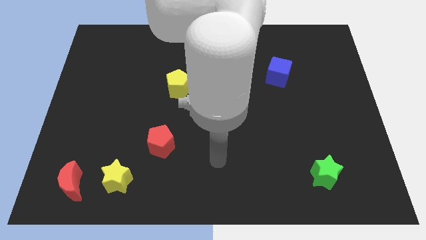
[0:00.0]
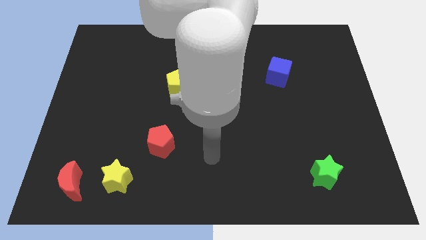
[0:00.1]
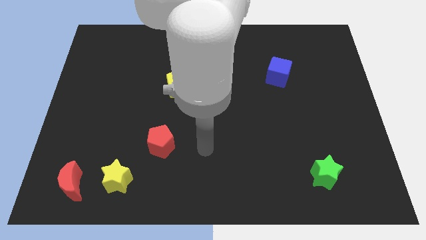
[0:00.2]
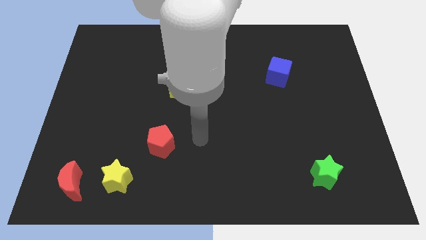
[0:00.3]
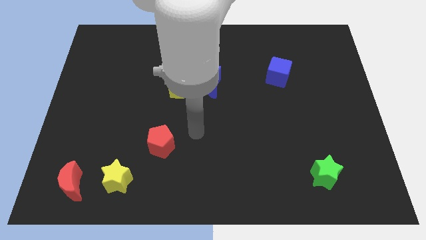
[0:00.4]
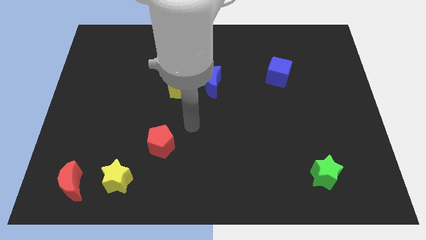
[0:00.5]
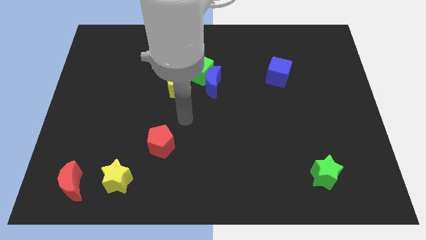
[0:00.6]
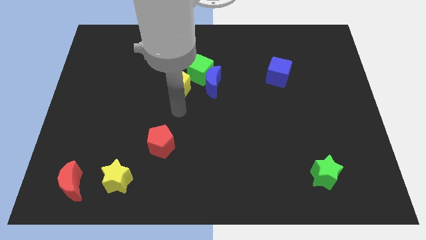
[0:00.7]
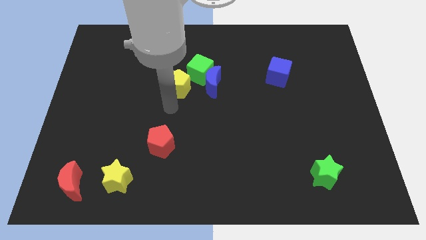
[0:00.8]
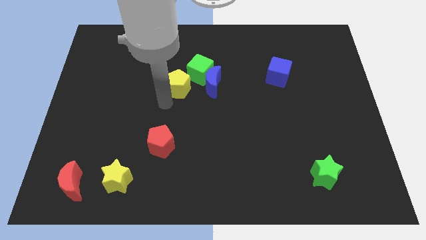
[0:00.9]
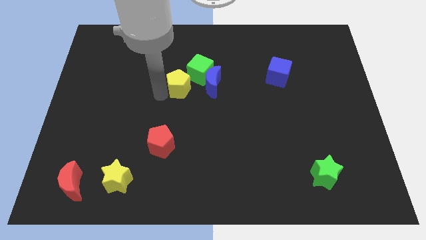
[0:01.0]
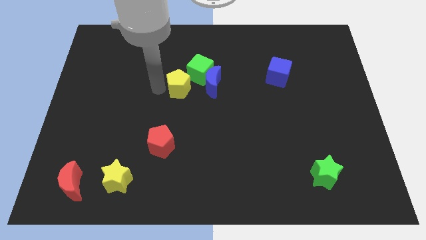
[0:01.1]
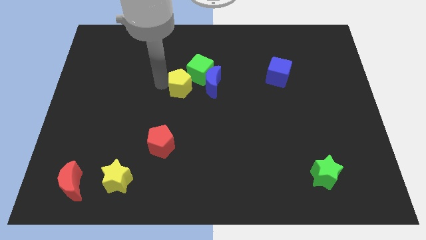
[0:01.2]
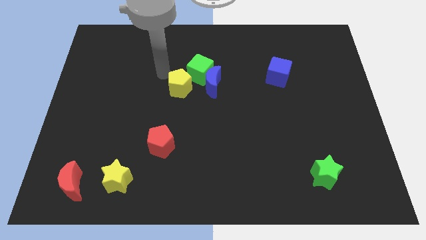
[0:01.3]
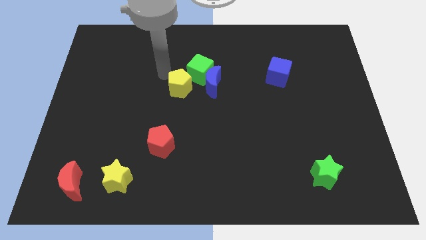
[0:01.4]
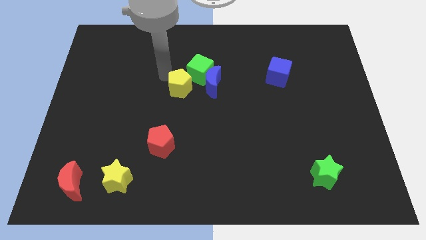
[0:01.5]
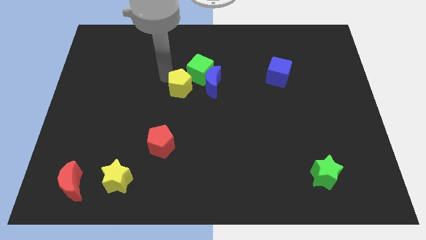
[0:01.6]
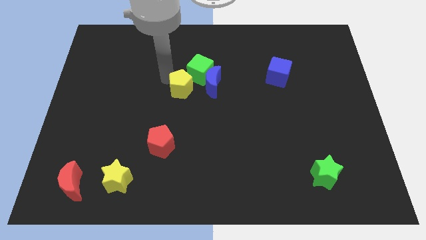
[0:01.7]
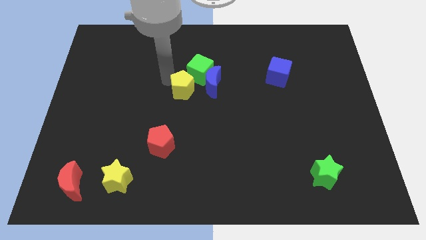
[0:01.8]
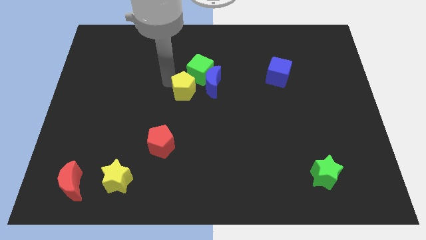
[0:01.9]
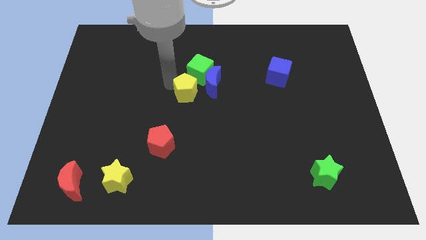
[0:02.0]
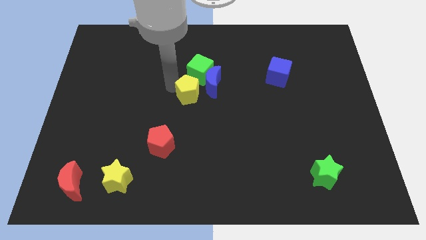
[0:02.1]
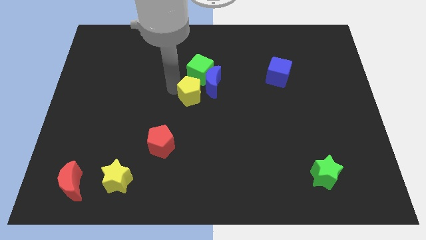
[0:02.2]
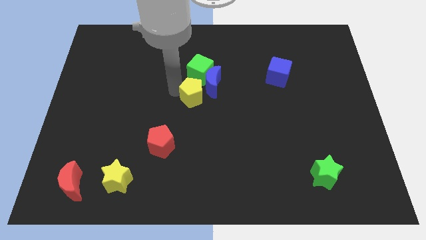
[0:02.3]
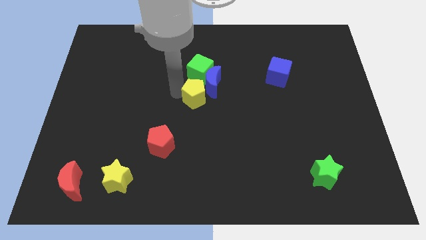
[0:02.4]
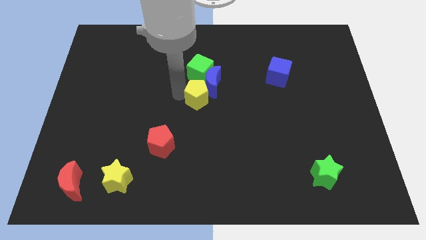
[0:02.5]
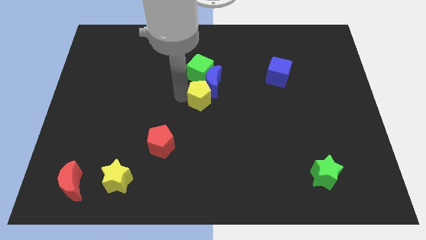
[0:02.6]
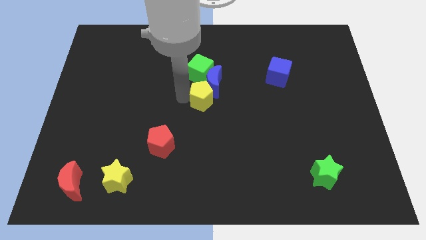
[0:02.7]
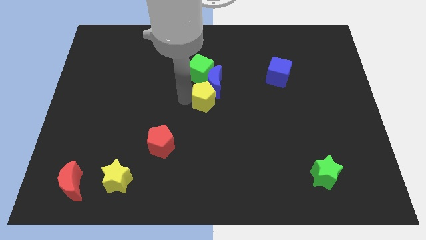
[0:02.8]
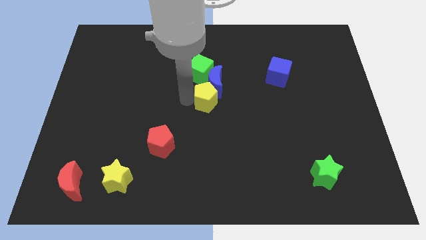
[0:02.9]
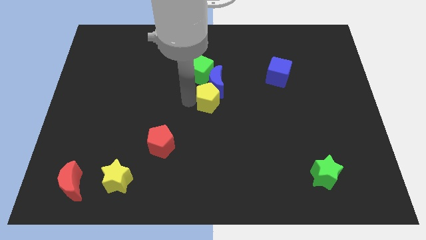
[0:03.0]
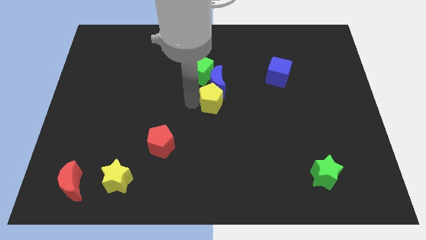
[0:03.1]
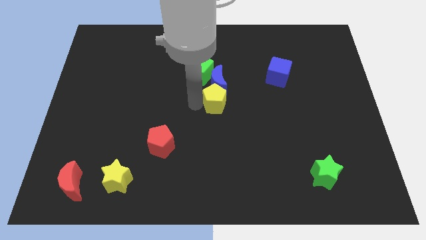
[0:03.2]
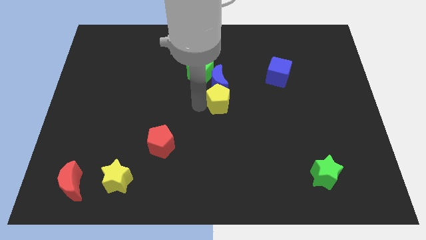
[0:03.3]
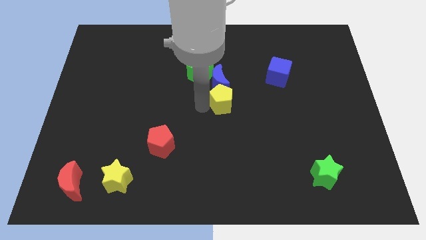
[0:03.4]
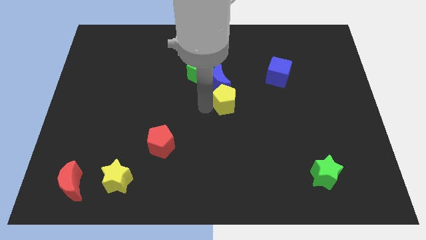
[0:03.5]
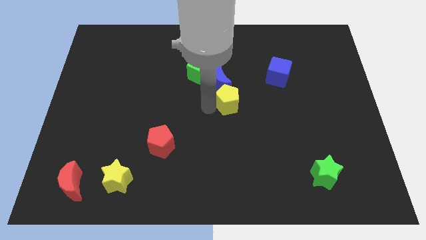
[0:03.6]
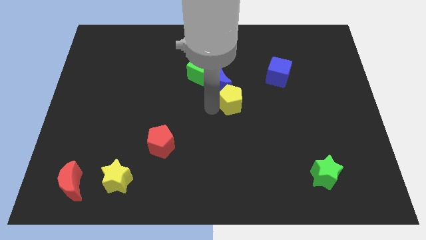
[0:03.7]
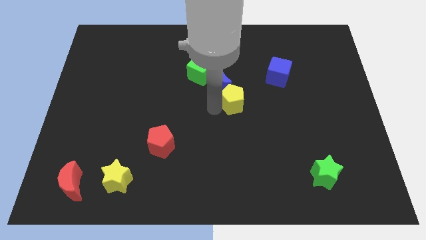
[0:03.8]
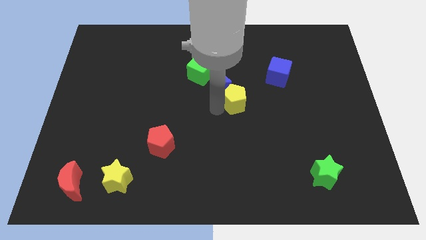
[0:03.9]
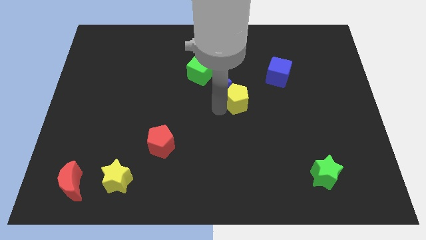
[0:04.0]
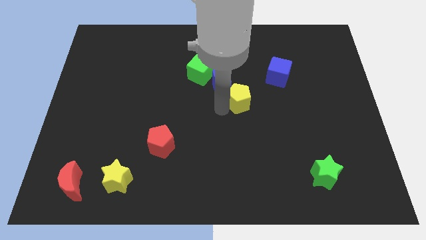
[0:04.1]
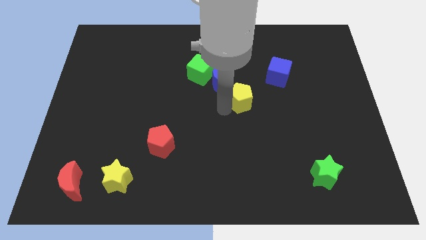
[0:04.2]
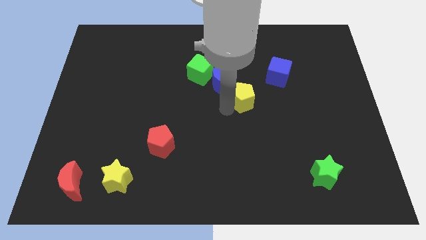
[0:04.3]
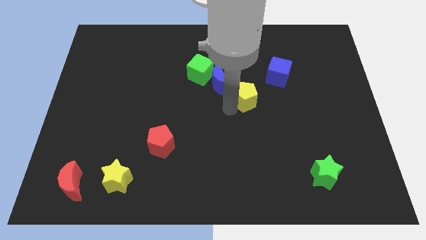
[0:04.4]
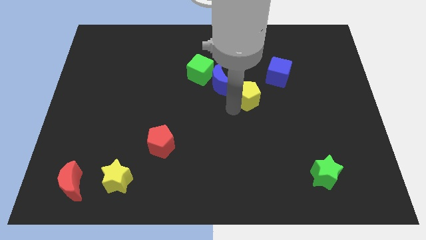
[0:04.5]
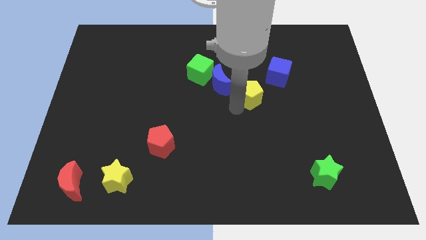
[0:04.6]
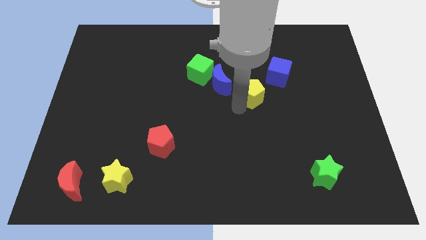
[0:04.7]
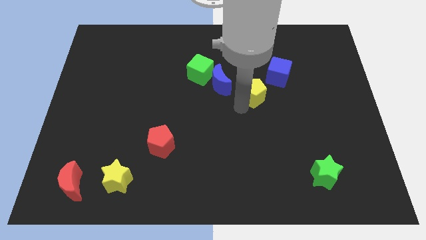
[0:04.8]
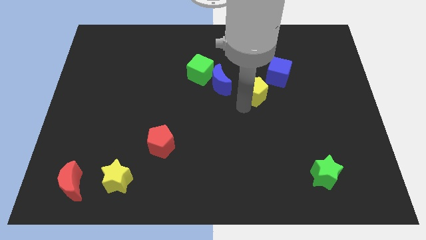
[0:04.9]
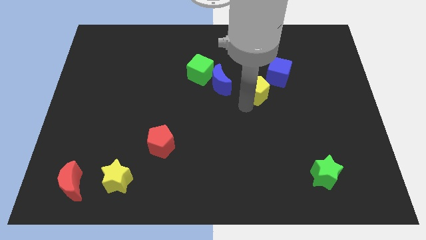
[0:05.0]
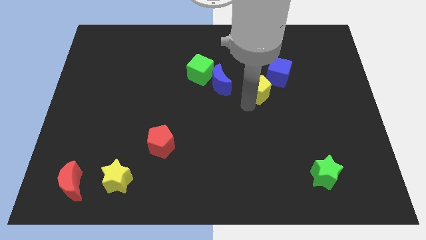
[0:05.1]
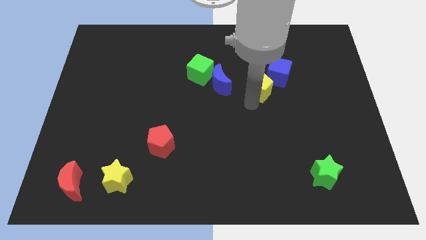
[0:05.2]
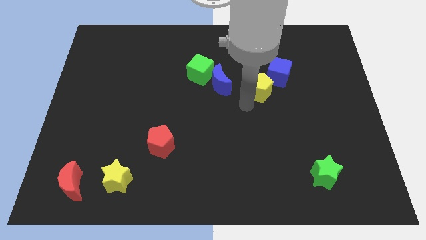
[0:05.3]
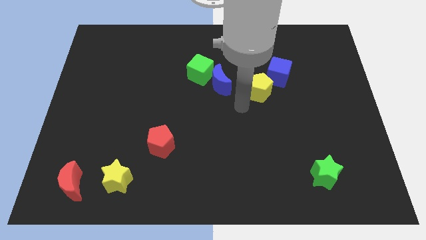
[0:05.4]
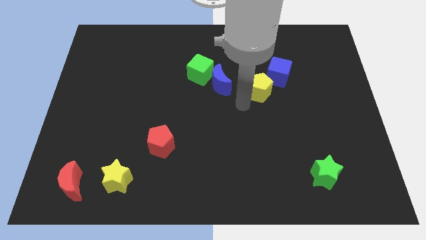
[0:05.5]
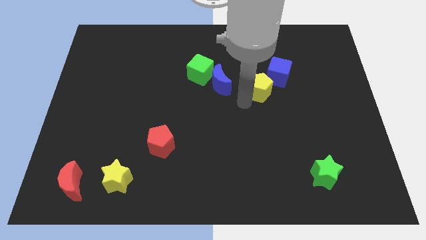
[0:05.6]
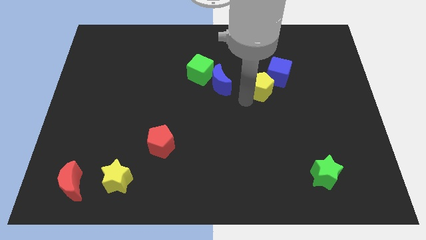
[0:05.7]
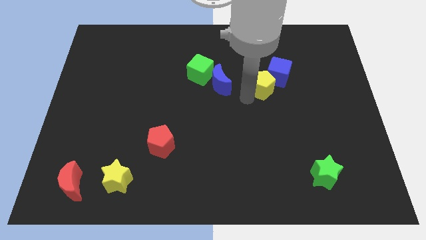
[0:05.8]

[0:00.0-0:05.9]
put the yellow pentagon close to the blue cube

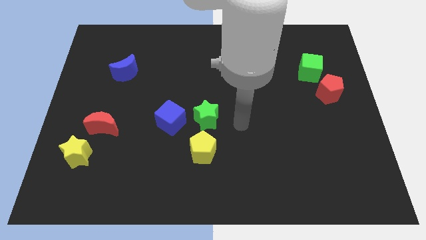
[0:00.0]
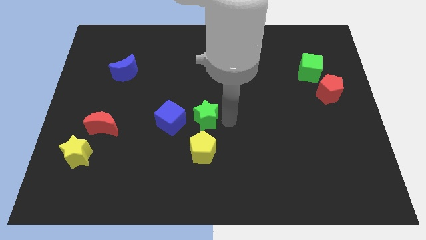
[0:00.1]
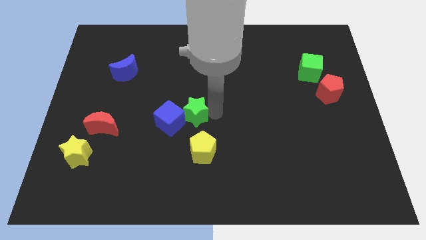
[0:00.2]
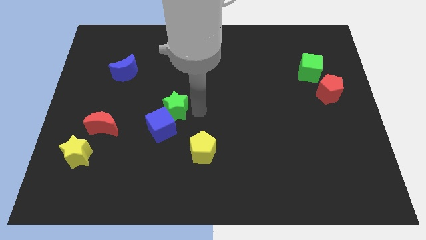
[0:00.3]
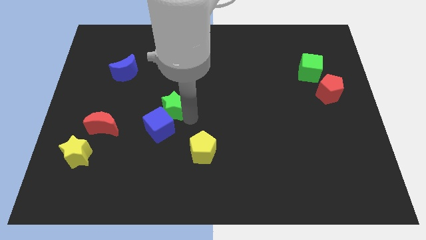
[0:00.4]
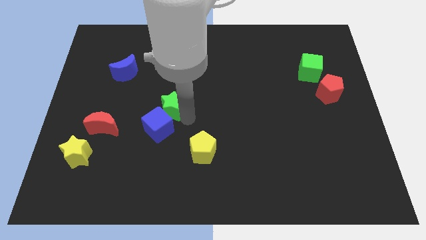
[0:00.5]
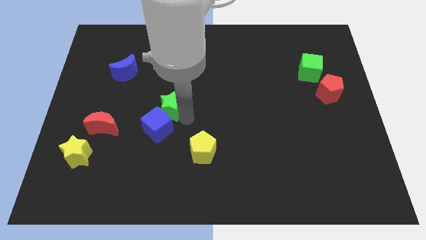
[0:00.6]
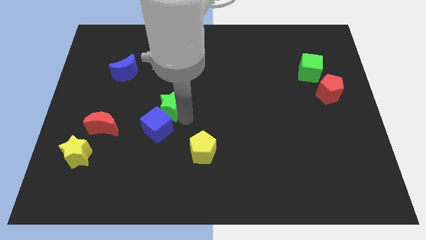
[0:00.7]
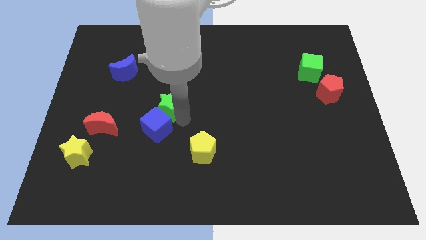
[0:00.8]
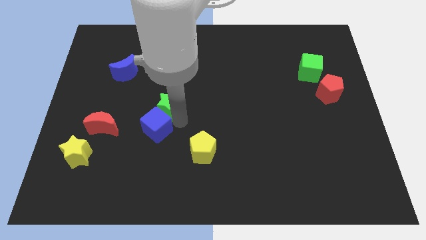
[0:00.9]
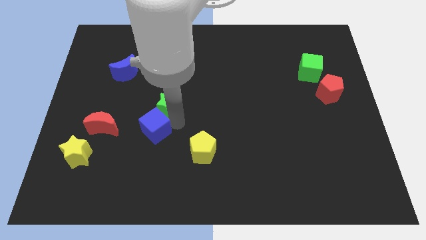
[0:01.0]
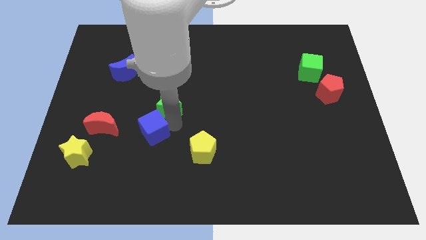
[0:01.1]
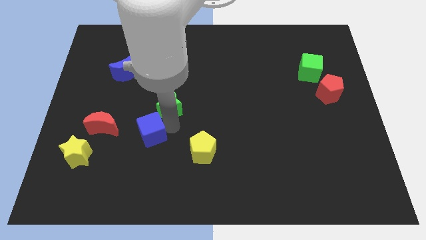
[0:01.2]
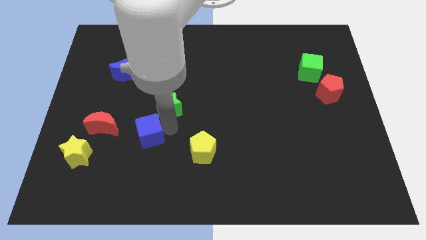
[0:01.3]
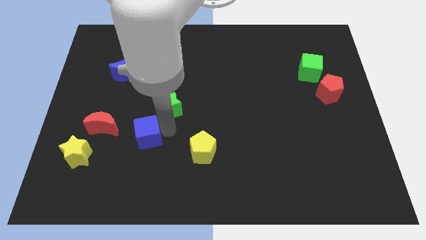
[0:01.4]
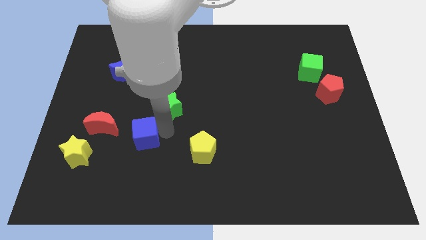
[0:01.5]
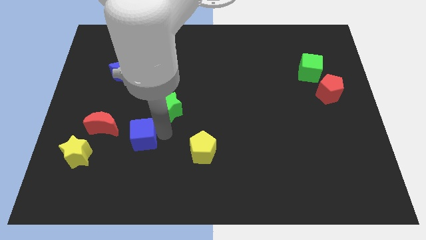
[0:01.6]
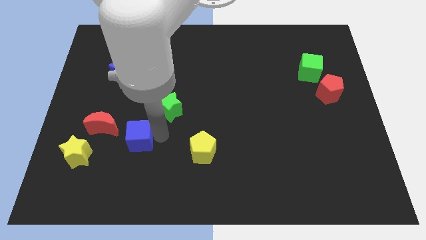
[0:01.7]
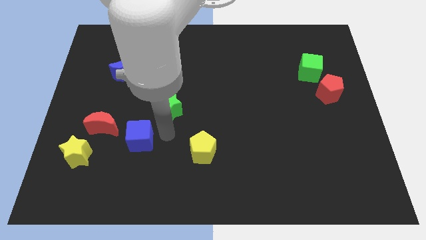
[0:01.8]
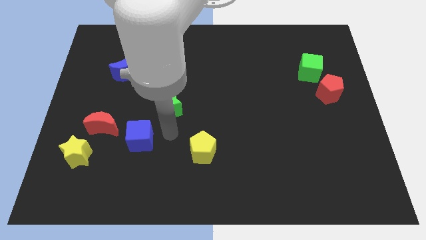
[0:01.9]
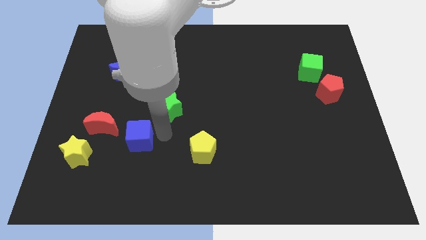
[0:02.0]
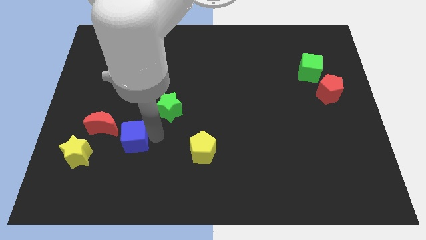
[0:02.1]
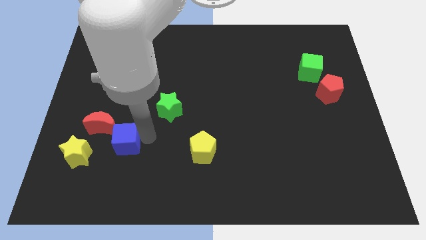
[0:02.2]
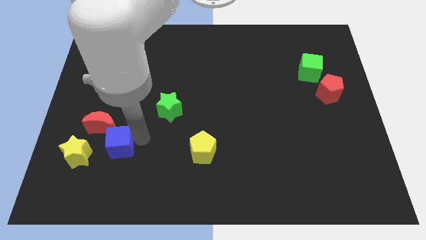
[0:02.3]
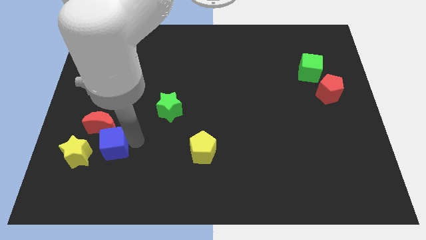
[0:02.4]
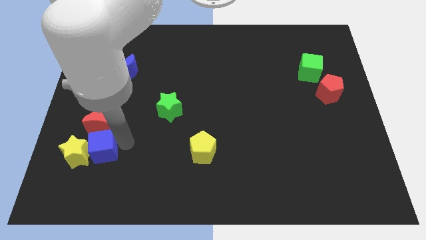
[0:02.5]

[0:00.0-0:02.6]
slide the blue cube close to the yellow star
